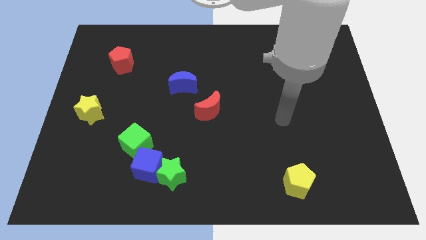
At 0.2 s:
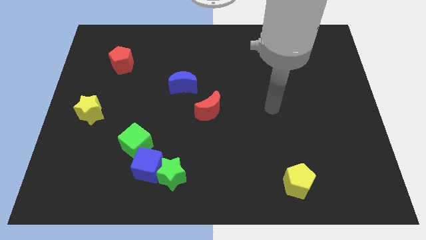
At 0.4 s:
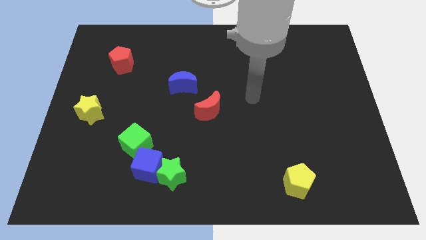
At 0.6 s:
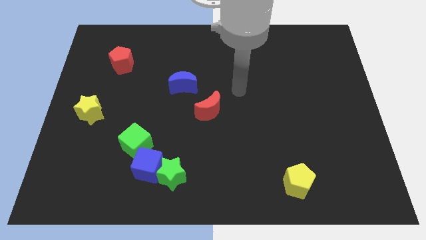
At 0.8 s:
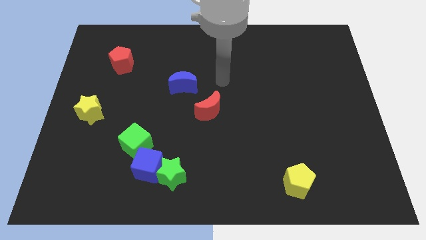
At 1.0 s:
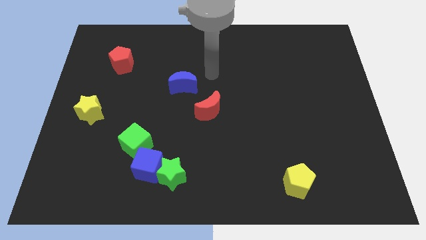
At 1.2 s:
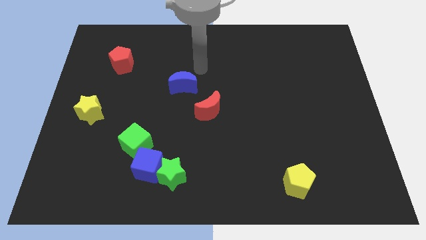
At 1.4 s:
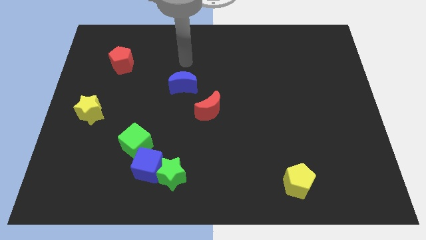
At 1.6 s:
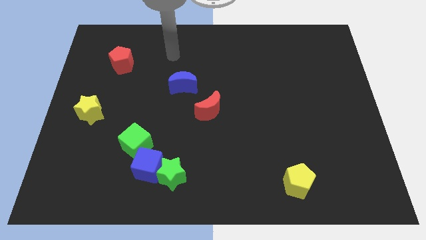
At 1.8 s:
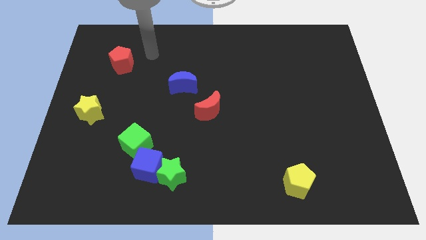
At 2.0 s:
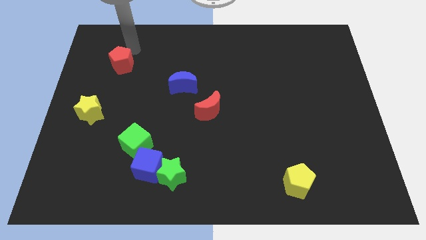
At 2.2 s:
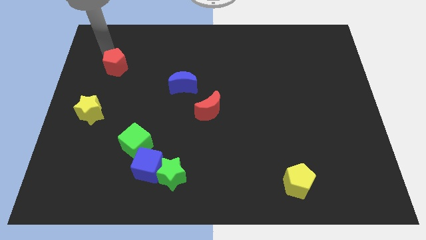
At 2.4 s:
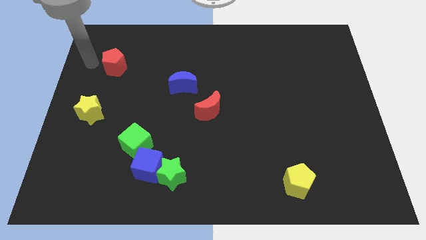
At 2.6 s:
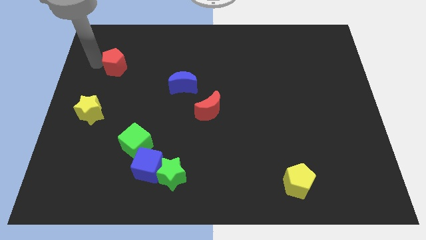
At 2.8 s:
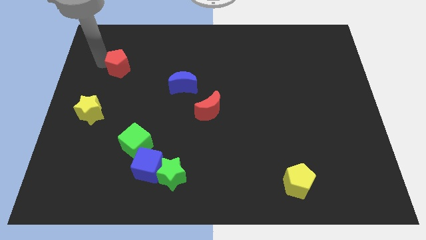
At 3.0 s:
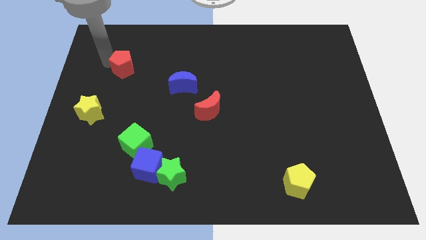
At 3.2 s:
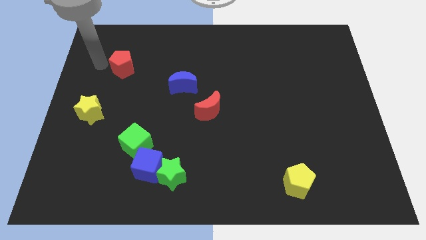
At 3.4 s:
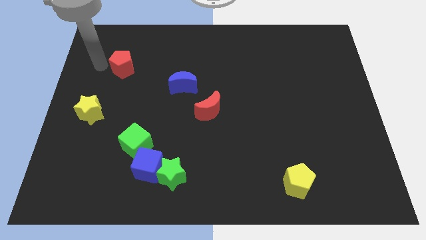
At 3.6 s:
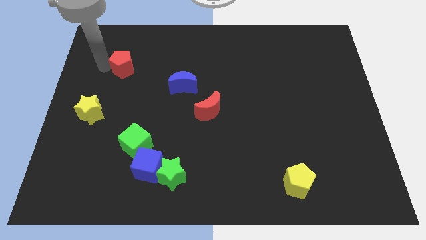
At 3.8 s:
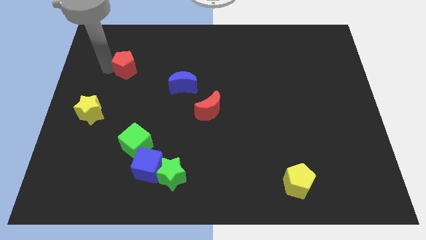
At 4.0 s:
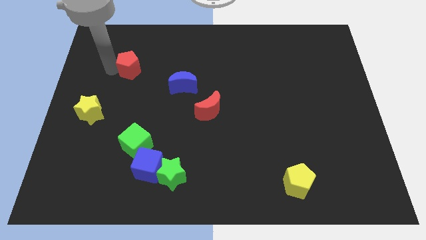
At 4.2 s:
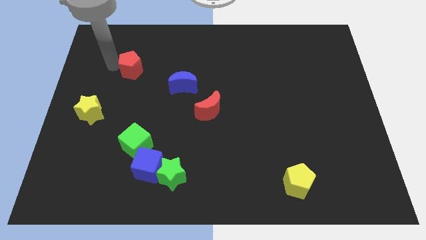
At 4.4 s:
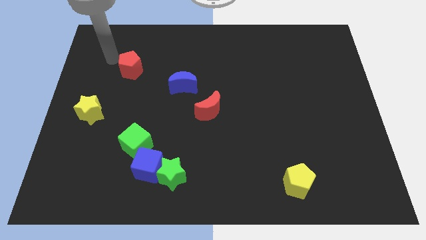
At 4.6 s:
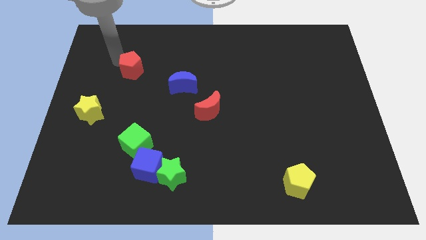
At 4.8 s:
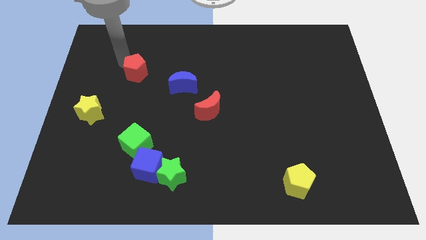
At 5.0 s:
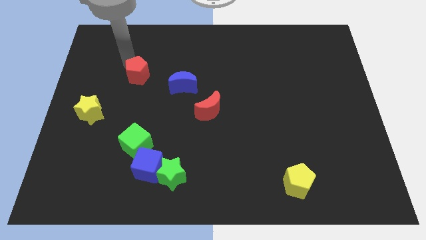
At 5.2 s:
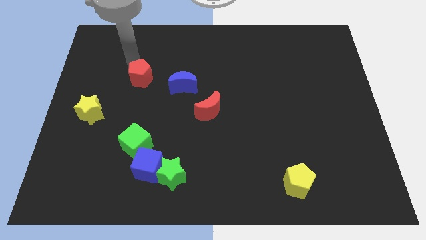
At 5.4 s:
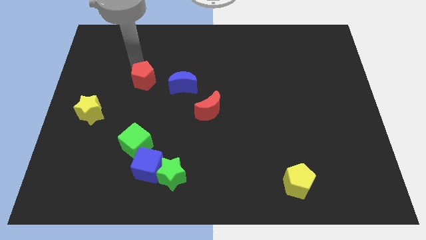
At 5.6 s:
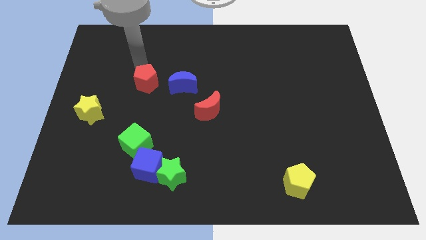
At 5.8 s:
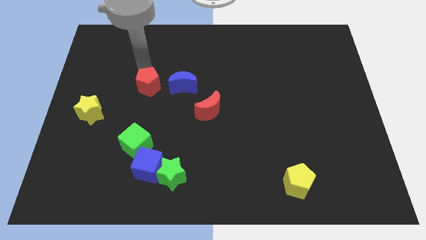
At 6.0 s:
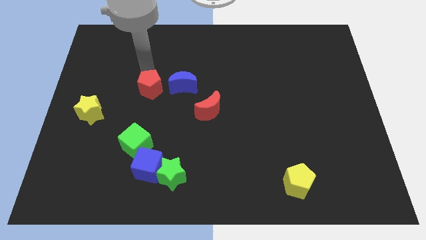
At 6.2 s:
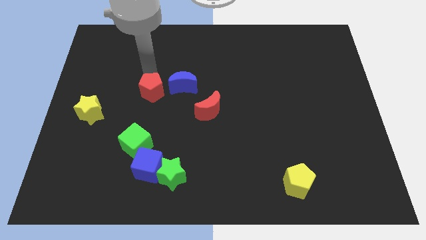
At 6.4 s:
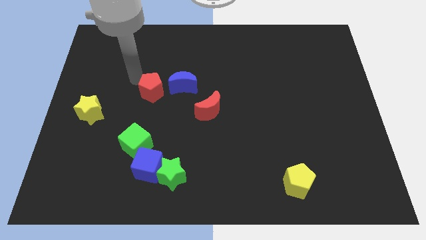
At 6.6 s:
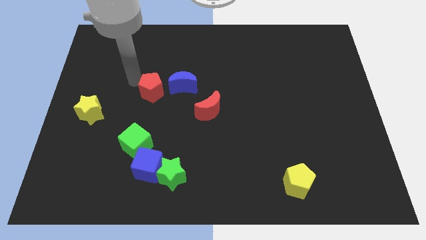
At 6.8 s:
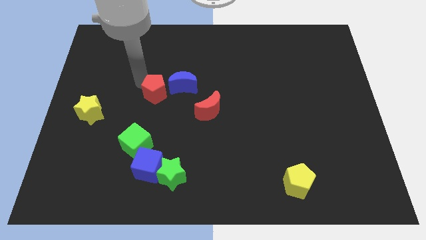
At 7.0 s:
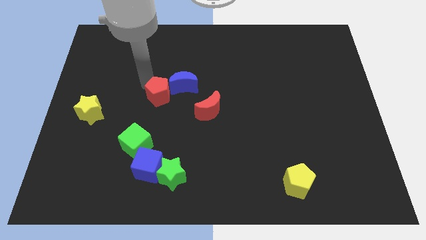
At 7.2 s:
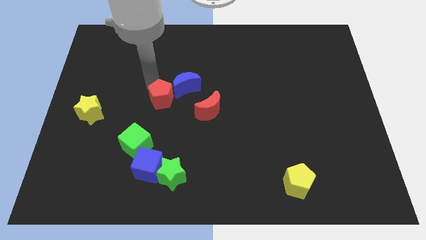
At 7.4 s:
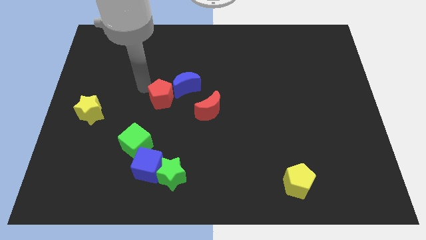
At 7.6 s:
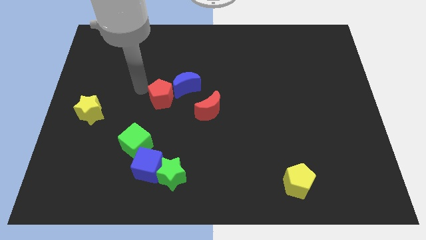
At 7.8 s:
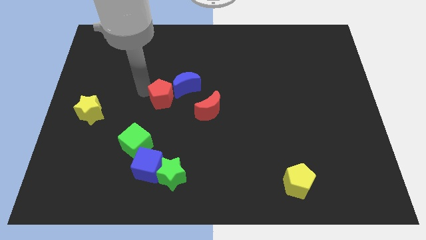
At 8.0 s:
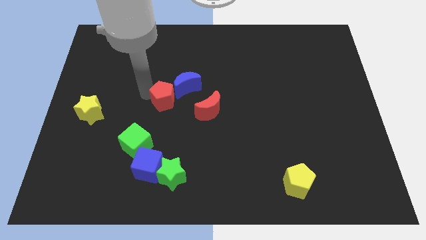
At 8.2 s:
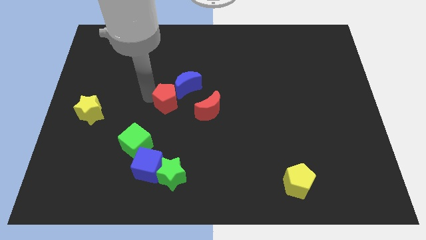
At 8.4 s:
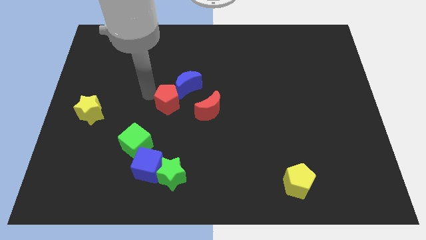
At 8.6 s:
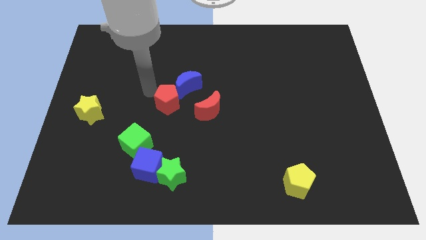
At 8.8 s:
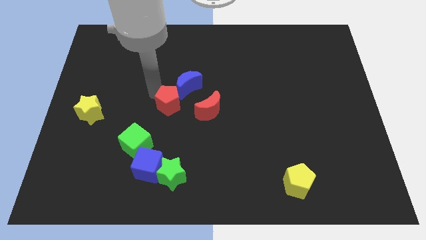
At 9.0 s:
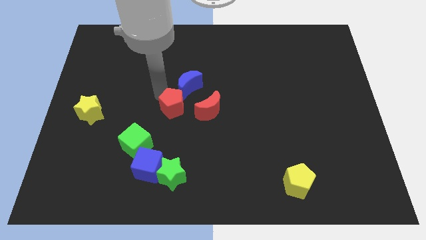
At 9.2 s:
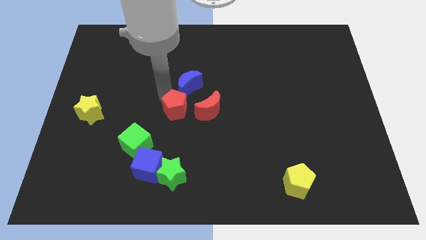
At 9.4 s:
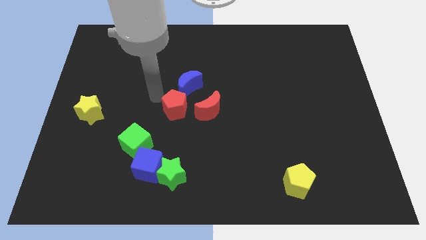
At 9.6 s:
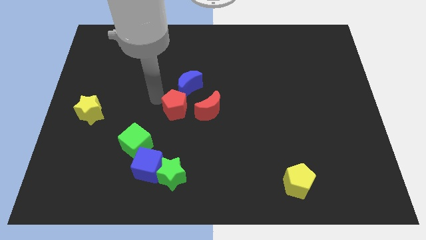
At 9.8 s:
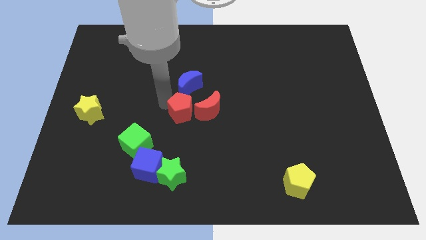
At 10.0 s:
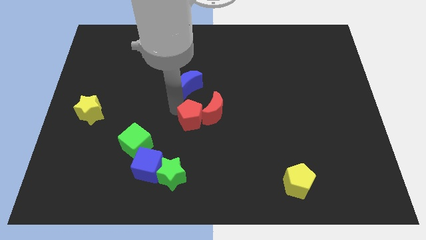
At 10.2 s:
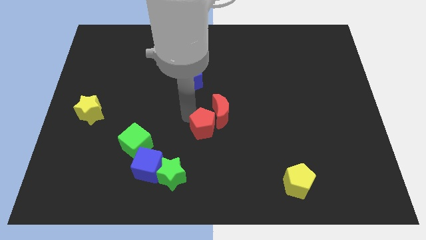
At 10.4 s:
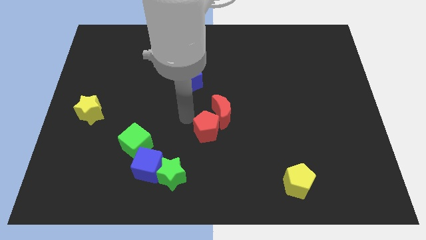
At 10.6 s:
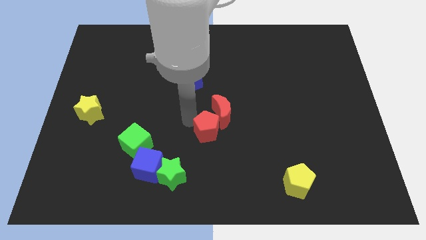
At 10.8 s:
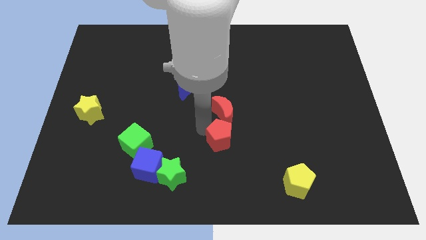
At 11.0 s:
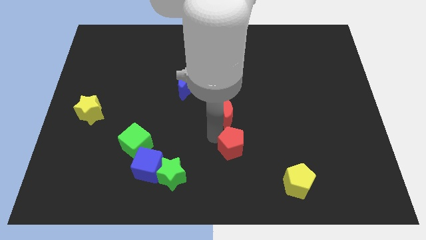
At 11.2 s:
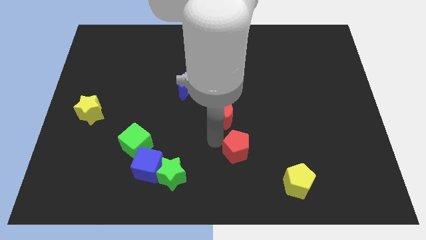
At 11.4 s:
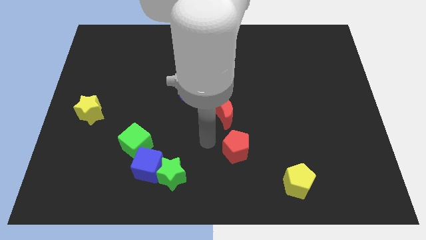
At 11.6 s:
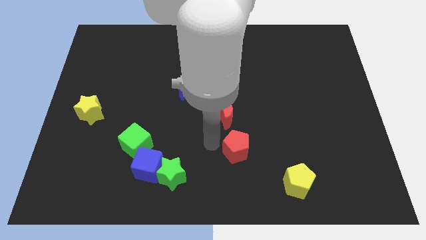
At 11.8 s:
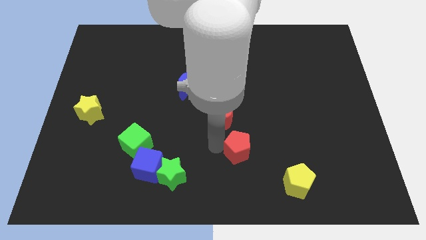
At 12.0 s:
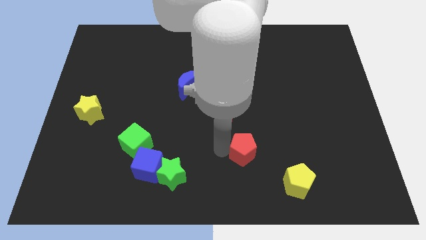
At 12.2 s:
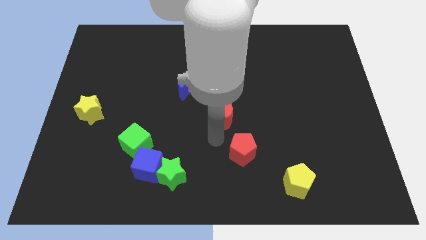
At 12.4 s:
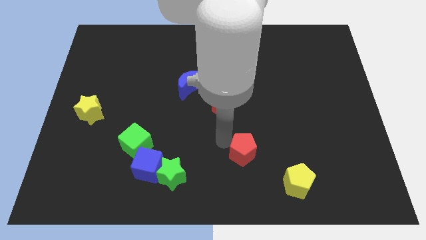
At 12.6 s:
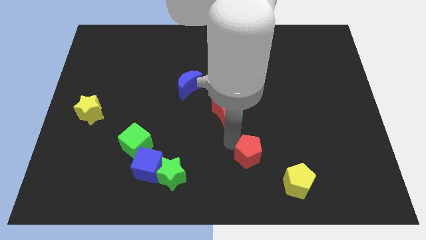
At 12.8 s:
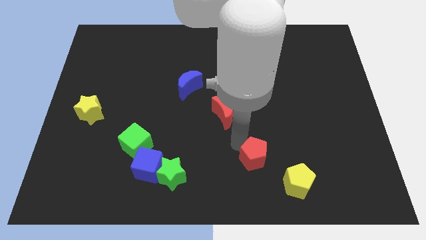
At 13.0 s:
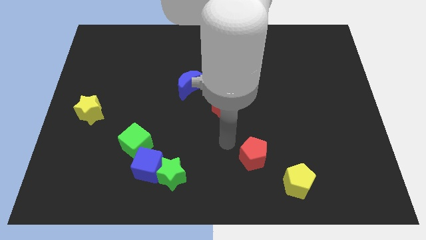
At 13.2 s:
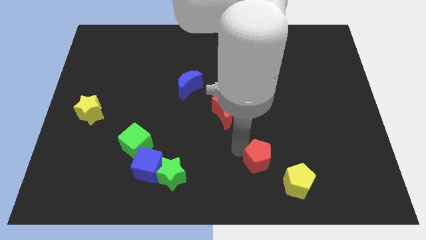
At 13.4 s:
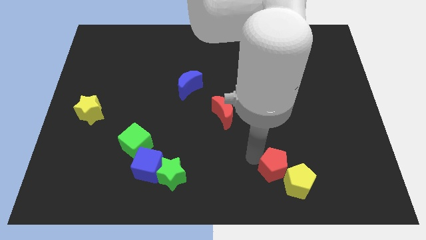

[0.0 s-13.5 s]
slide the red pentagon towards the yellow pentagon

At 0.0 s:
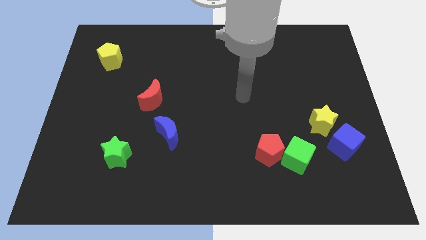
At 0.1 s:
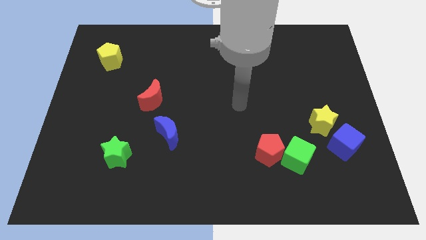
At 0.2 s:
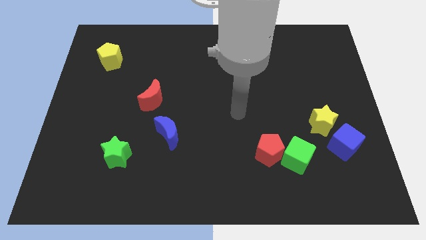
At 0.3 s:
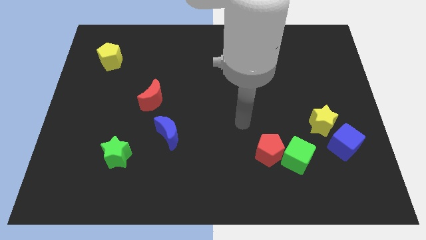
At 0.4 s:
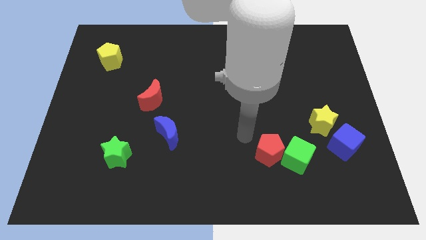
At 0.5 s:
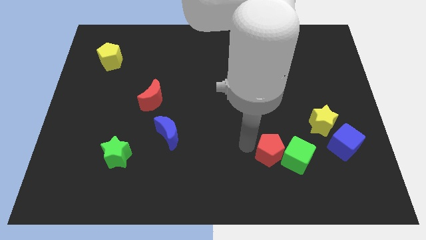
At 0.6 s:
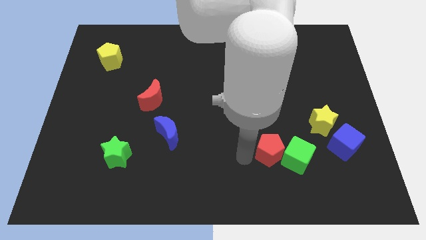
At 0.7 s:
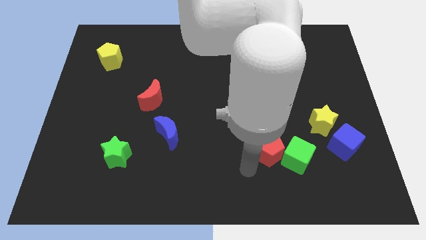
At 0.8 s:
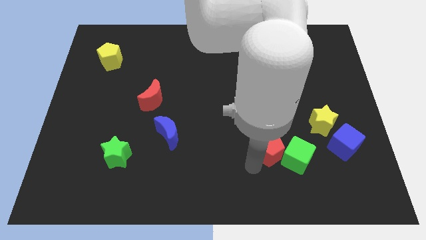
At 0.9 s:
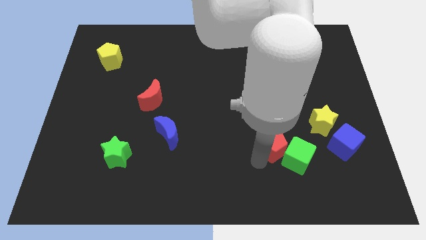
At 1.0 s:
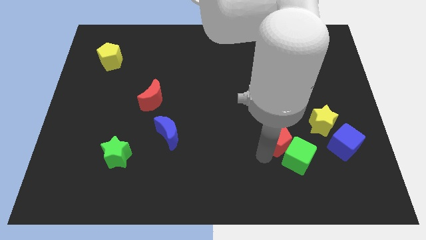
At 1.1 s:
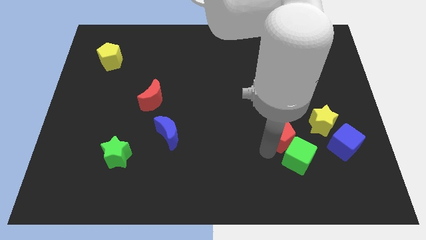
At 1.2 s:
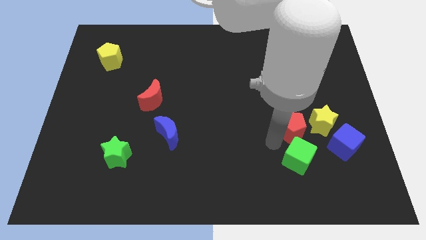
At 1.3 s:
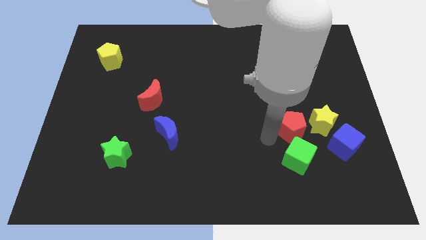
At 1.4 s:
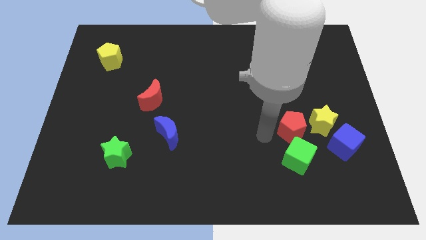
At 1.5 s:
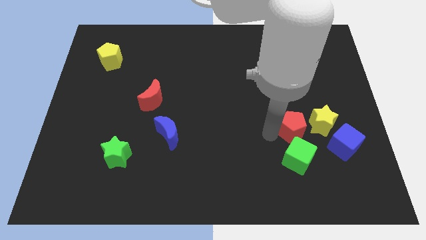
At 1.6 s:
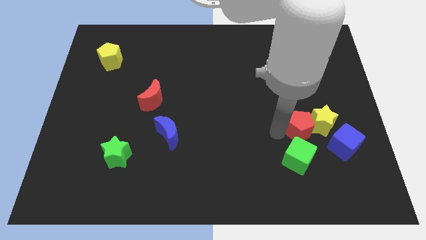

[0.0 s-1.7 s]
move the red pentagon close to the yellow star
